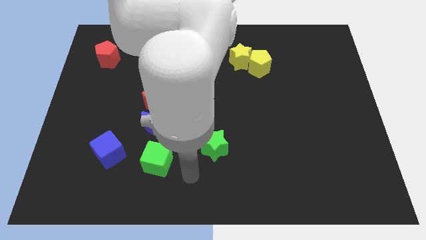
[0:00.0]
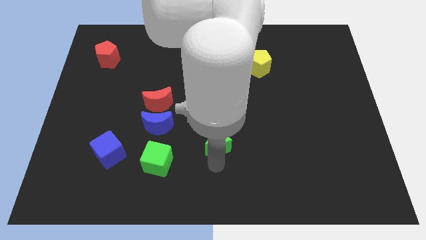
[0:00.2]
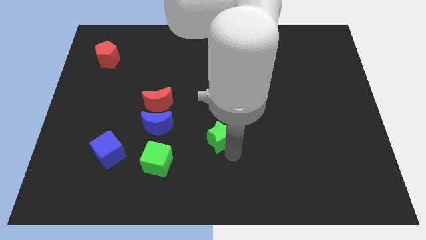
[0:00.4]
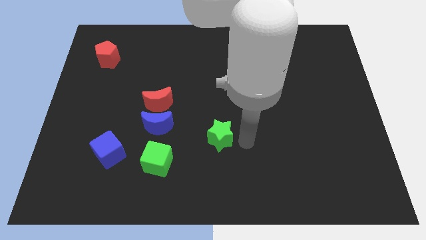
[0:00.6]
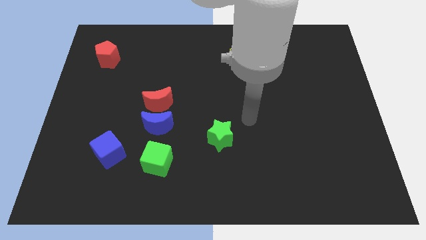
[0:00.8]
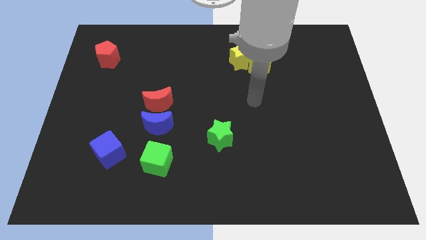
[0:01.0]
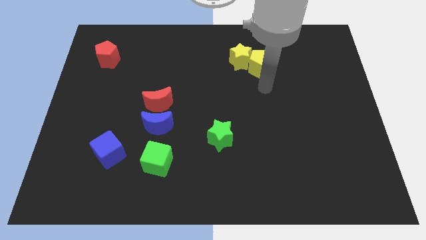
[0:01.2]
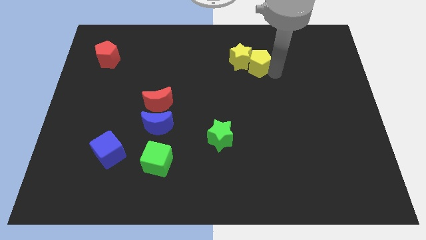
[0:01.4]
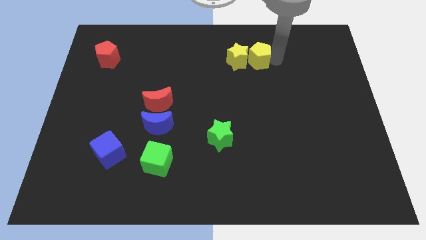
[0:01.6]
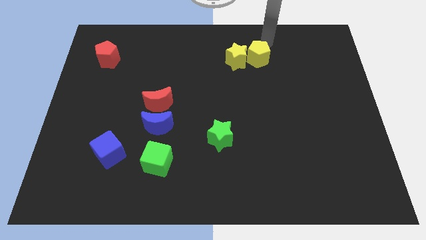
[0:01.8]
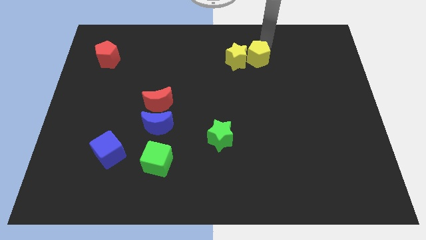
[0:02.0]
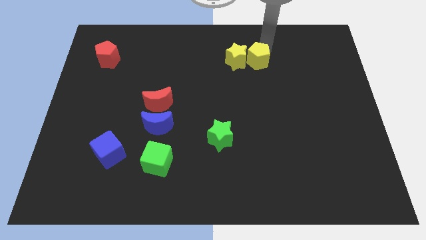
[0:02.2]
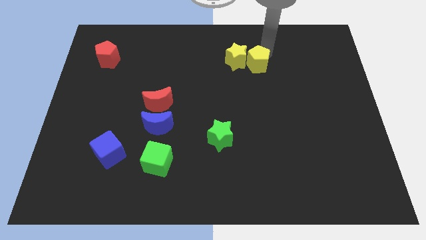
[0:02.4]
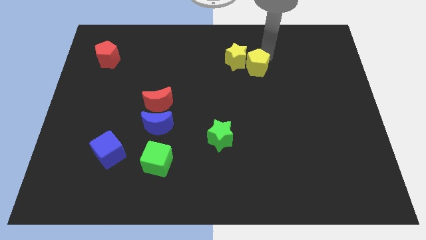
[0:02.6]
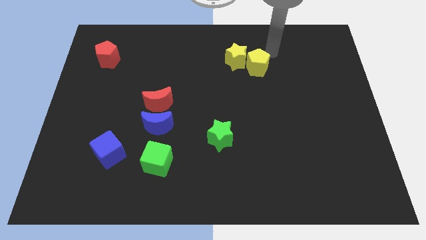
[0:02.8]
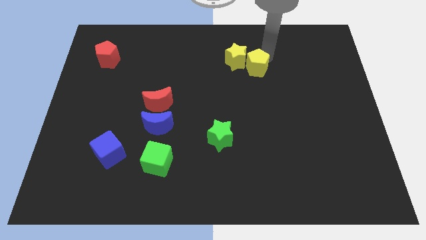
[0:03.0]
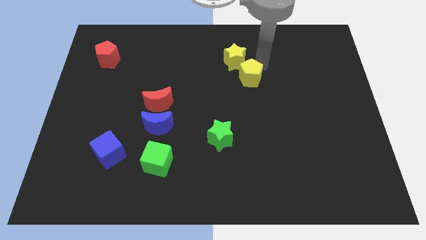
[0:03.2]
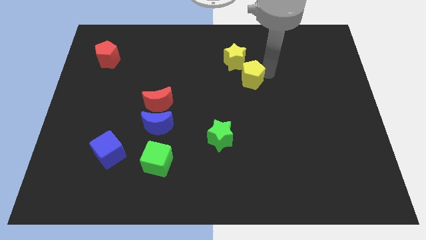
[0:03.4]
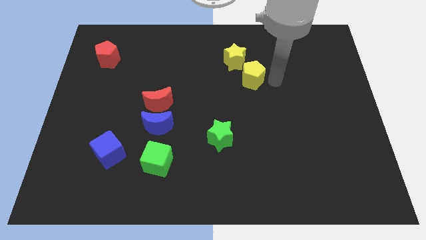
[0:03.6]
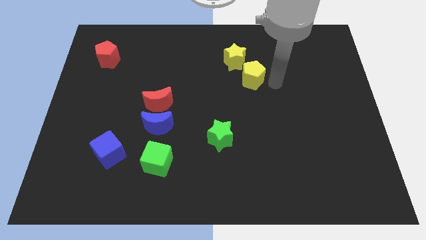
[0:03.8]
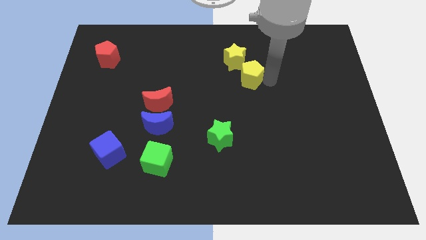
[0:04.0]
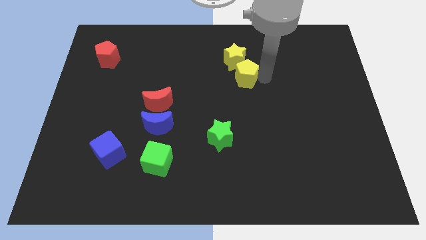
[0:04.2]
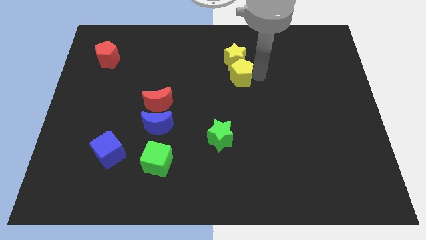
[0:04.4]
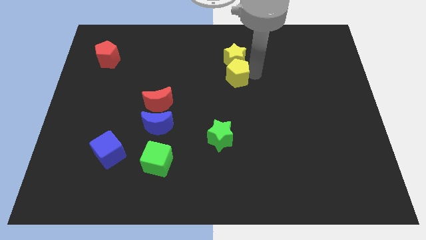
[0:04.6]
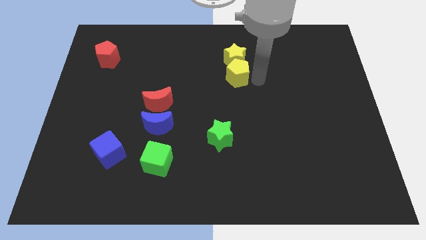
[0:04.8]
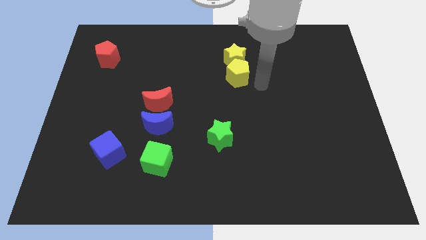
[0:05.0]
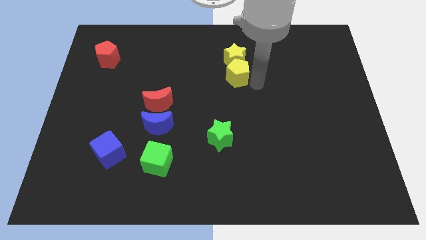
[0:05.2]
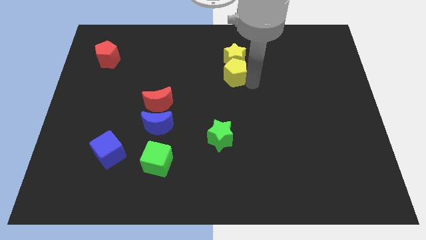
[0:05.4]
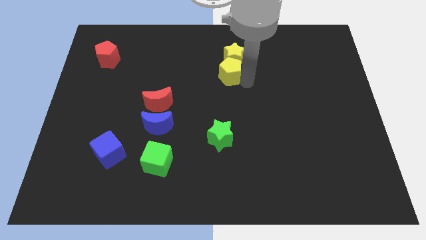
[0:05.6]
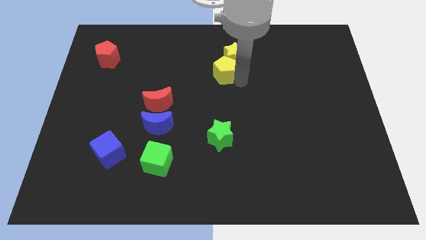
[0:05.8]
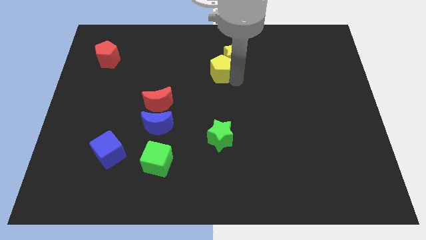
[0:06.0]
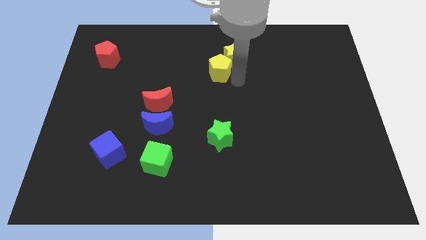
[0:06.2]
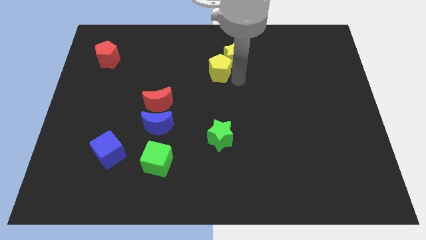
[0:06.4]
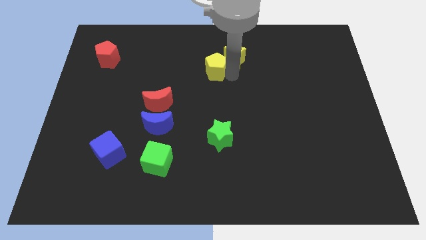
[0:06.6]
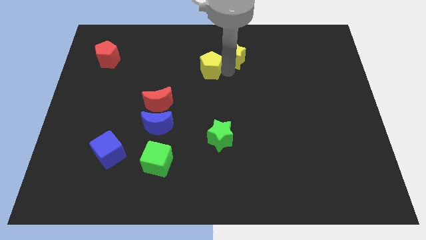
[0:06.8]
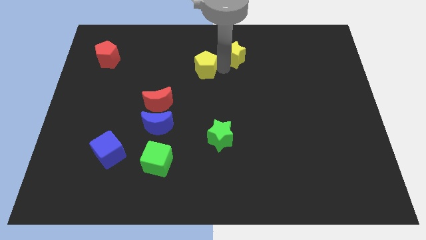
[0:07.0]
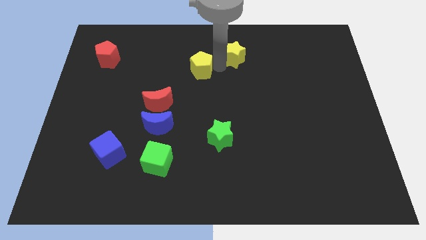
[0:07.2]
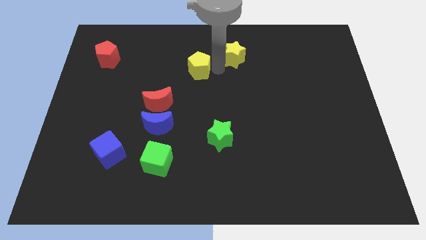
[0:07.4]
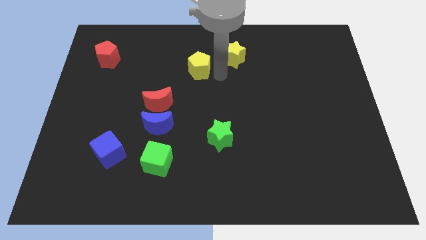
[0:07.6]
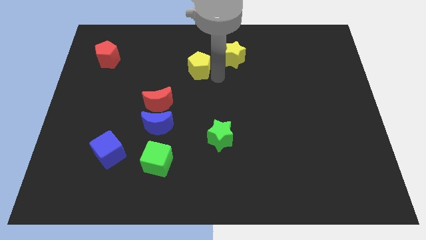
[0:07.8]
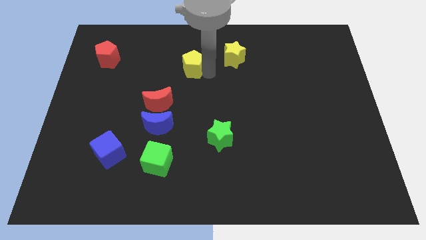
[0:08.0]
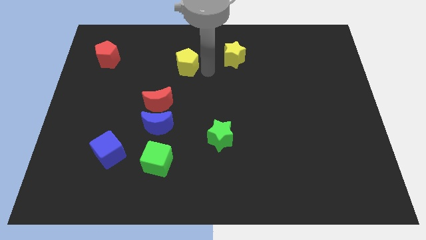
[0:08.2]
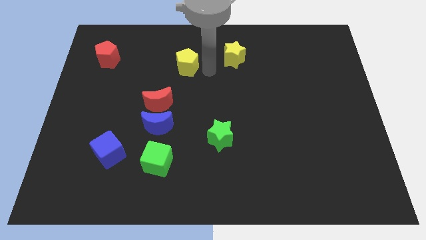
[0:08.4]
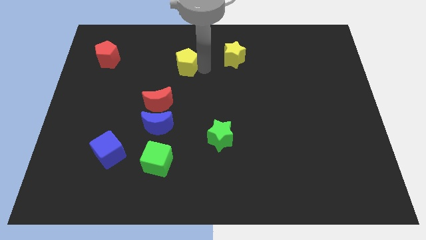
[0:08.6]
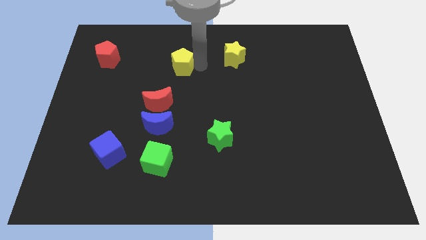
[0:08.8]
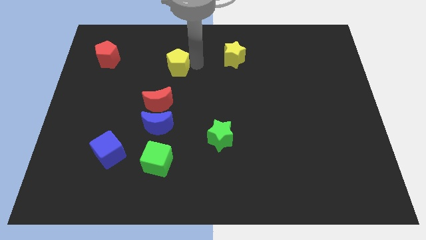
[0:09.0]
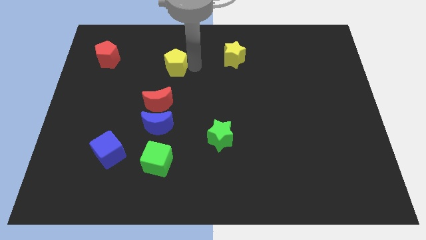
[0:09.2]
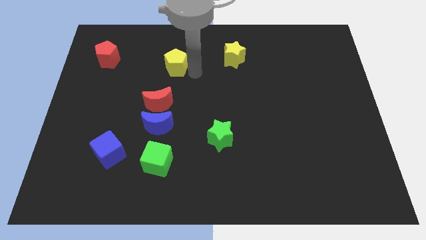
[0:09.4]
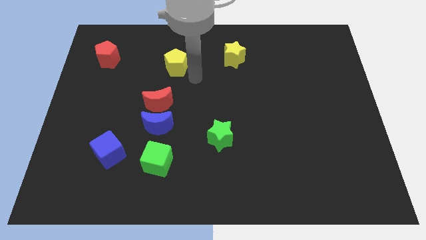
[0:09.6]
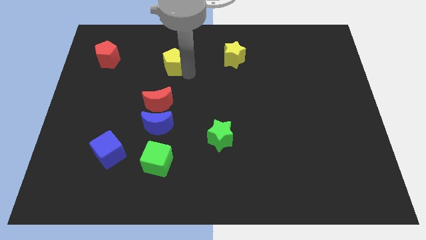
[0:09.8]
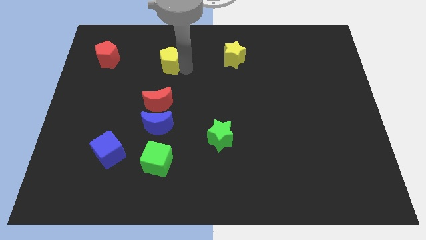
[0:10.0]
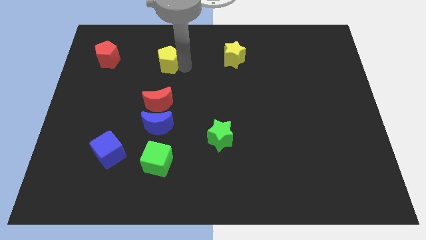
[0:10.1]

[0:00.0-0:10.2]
put the yellow pentagon right of the red pentagon

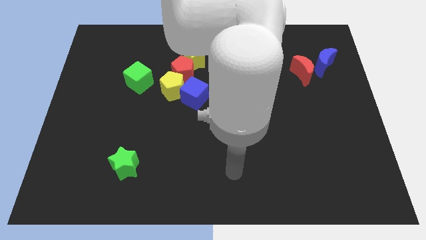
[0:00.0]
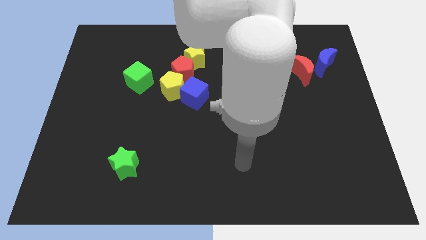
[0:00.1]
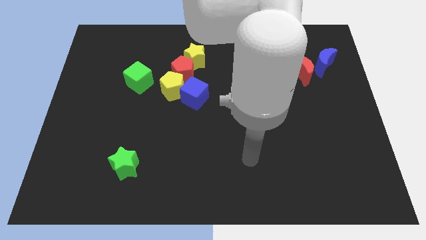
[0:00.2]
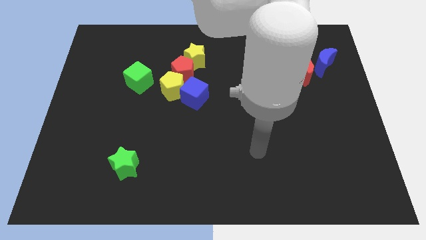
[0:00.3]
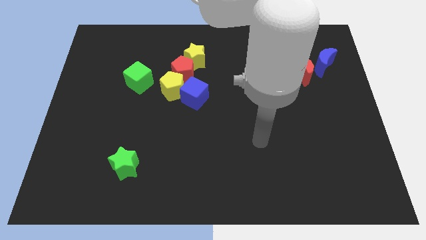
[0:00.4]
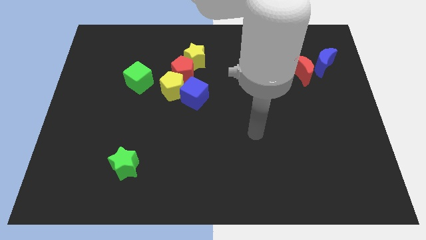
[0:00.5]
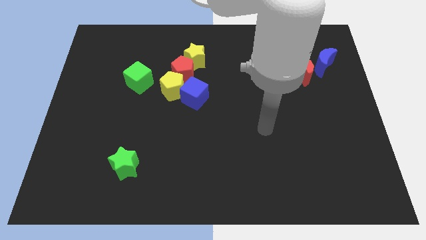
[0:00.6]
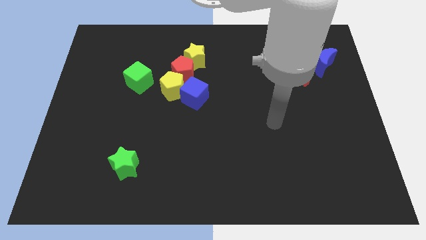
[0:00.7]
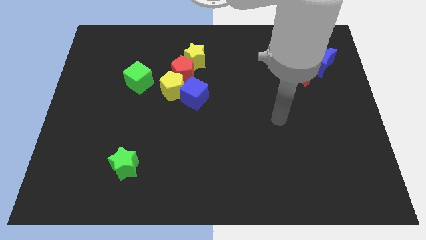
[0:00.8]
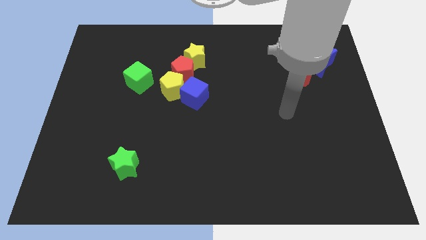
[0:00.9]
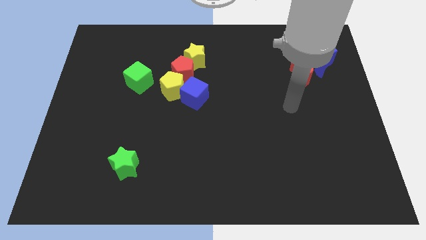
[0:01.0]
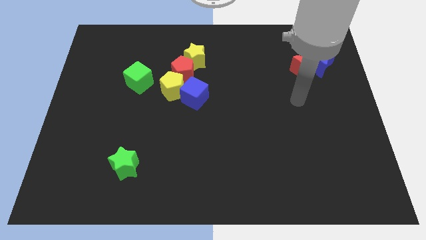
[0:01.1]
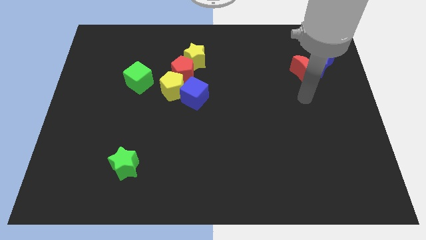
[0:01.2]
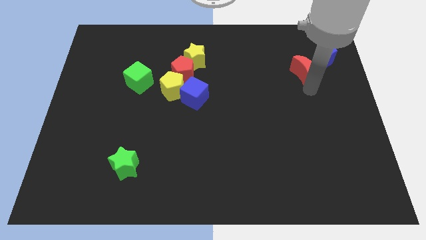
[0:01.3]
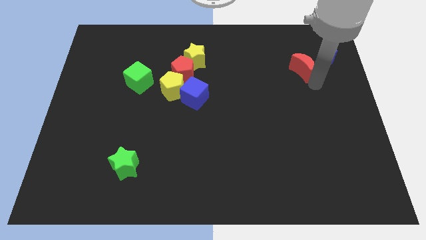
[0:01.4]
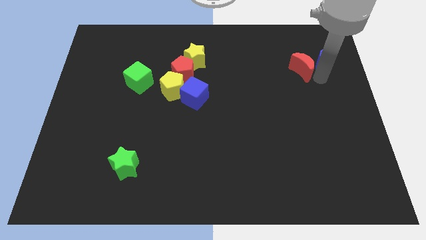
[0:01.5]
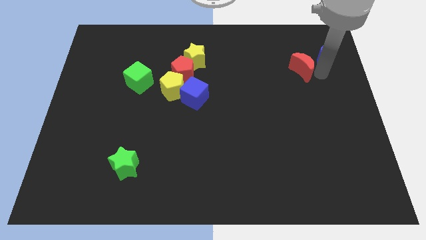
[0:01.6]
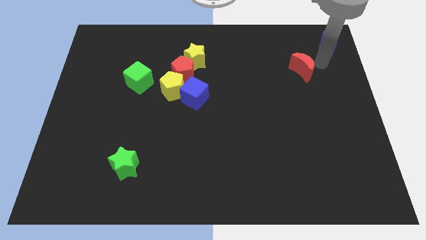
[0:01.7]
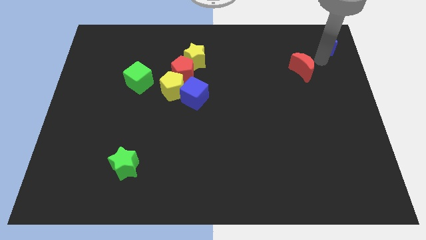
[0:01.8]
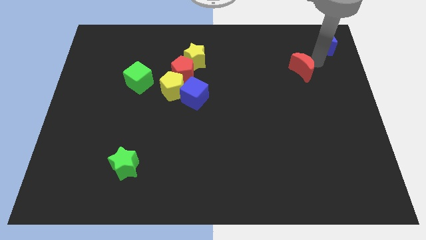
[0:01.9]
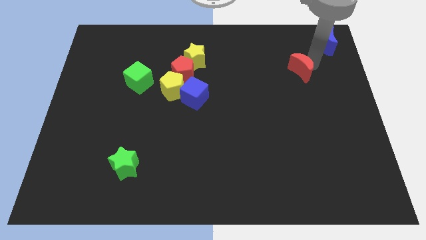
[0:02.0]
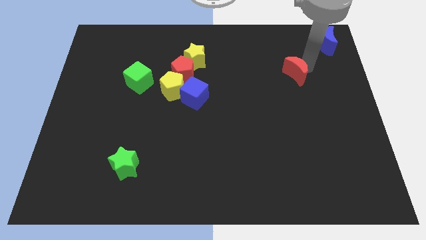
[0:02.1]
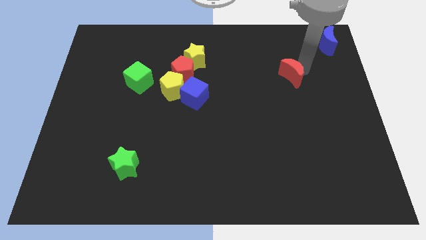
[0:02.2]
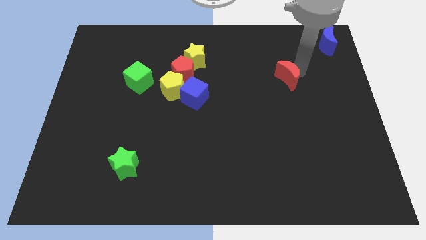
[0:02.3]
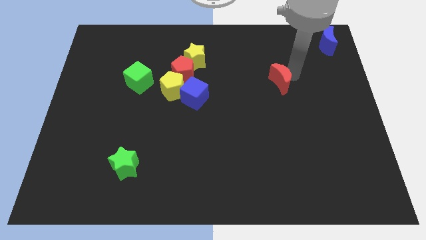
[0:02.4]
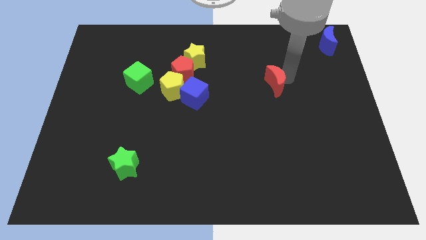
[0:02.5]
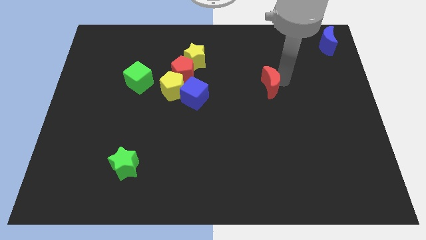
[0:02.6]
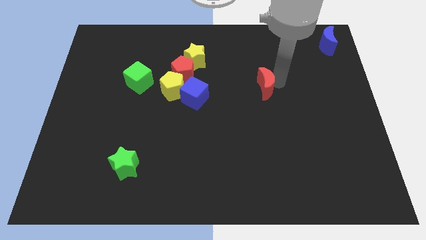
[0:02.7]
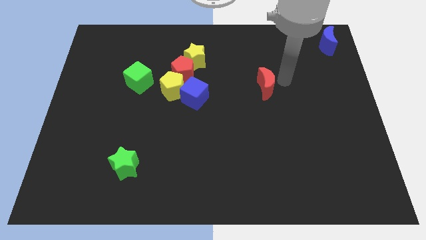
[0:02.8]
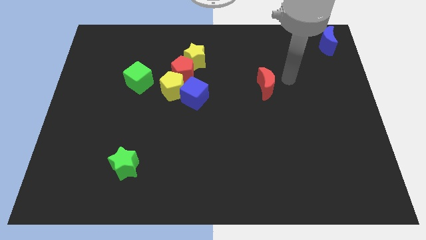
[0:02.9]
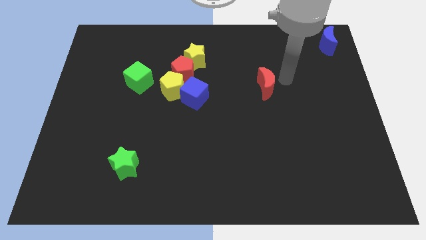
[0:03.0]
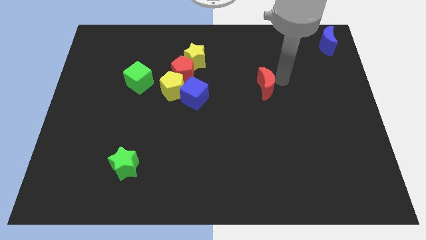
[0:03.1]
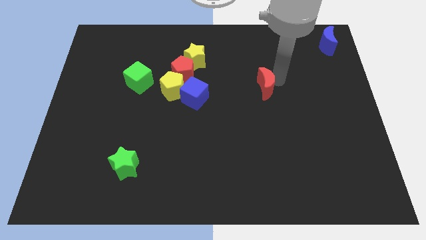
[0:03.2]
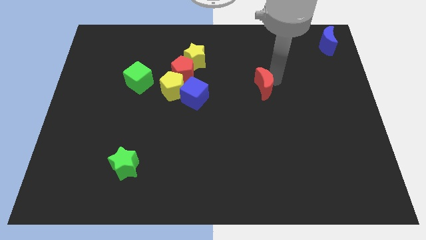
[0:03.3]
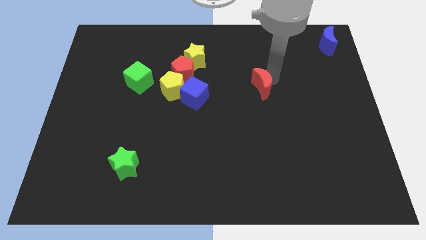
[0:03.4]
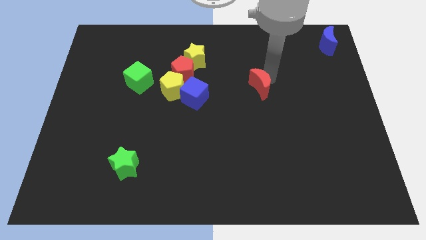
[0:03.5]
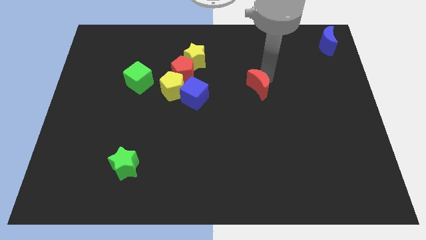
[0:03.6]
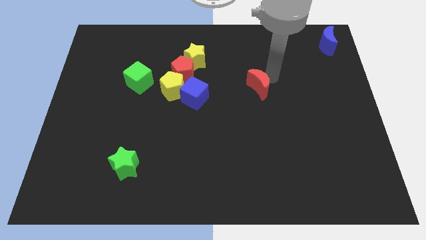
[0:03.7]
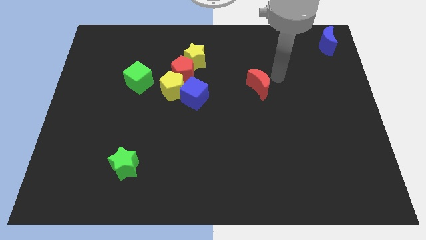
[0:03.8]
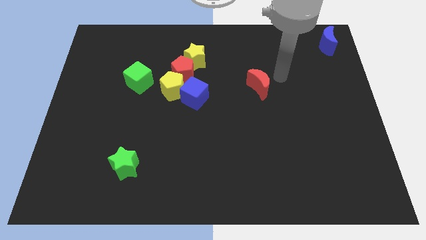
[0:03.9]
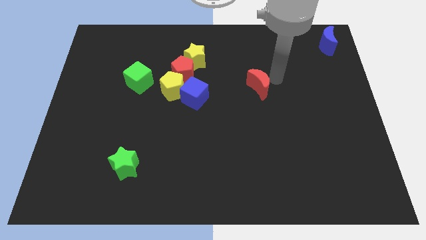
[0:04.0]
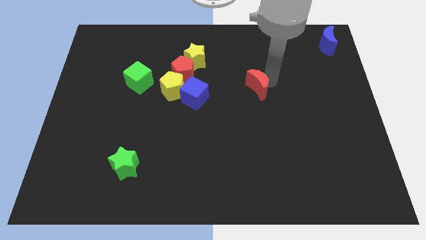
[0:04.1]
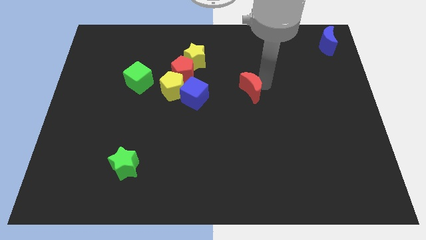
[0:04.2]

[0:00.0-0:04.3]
slide the red moon right of the blue cube
